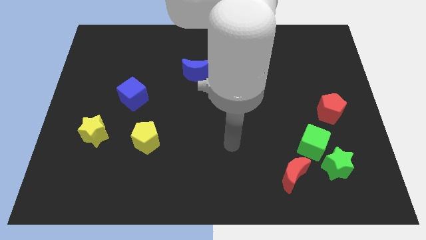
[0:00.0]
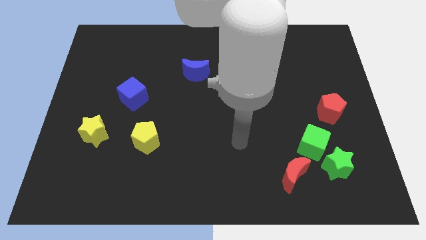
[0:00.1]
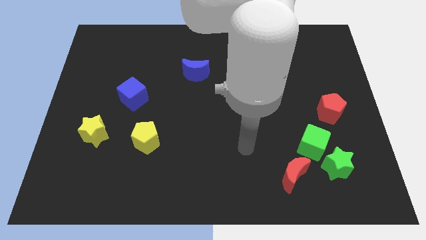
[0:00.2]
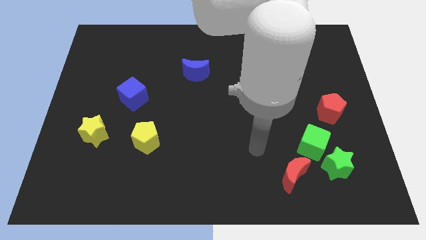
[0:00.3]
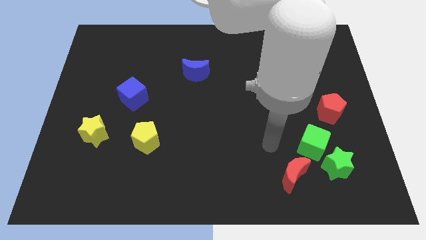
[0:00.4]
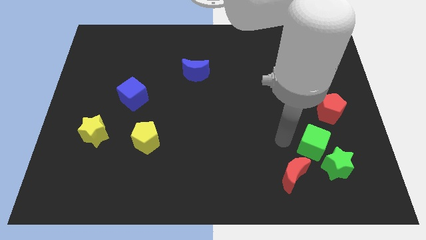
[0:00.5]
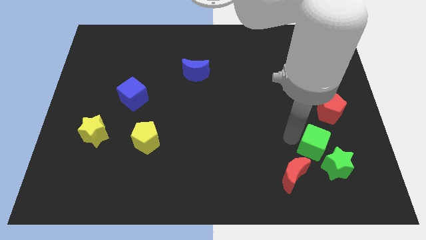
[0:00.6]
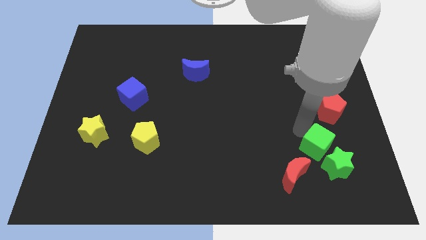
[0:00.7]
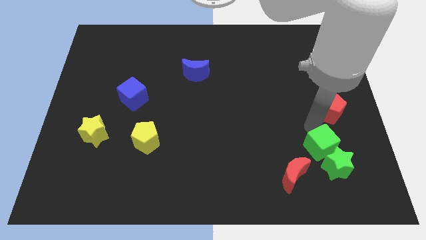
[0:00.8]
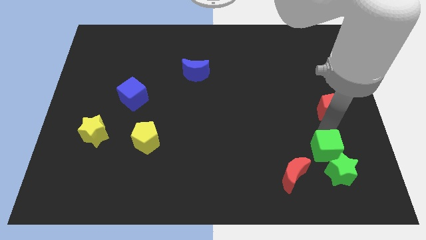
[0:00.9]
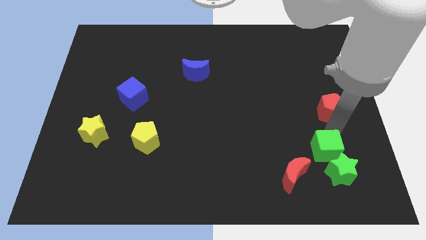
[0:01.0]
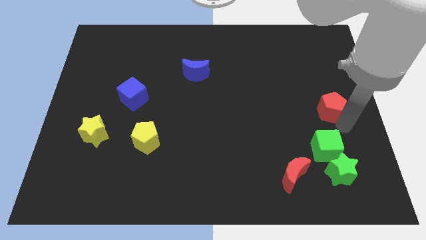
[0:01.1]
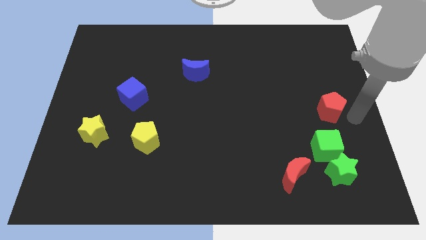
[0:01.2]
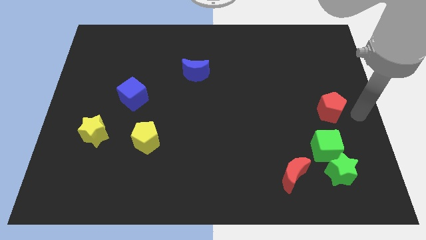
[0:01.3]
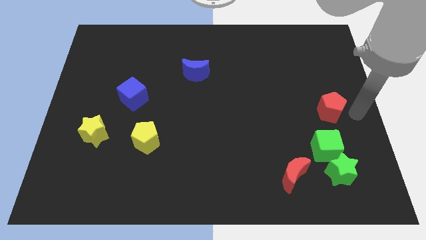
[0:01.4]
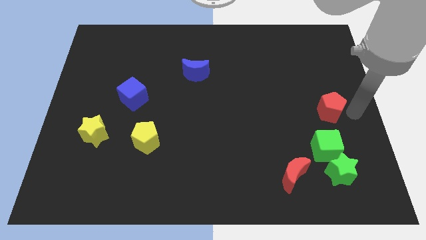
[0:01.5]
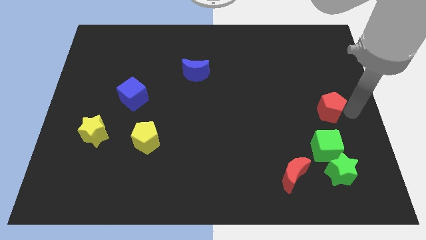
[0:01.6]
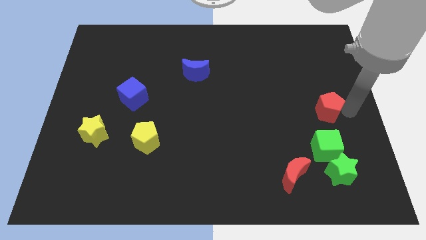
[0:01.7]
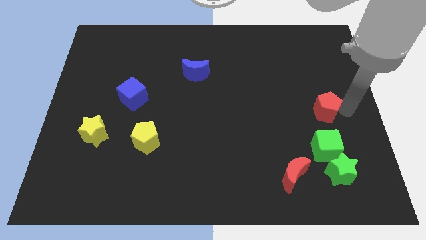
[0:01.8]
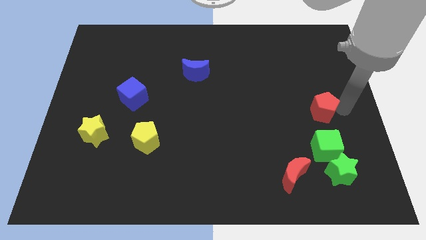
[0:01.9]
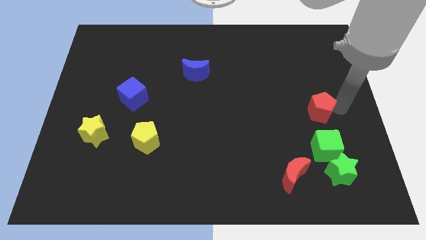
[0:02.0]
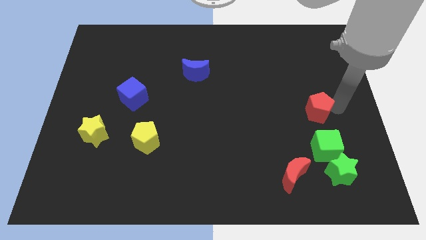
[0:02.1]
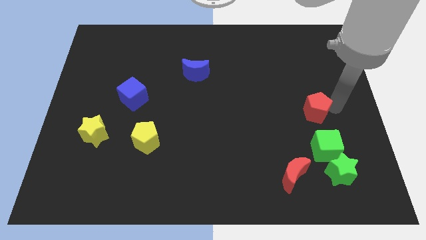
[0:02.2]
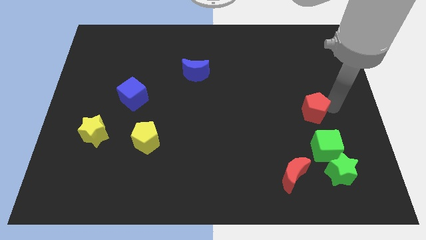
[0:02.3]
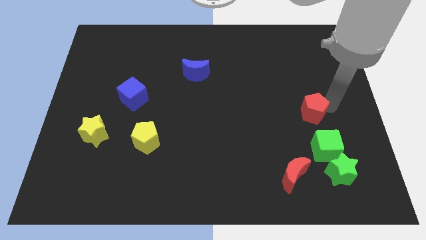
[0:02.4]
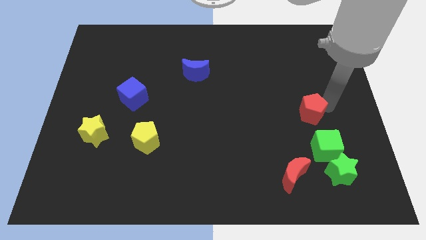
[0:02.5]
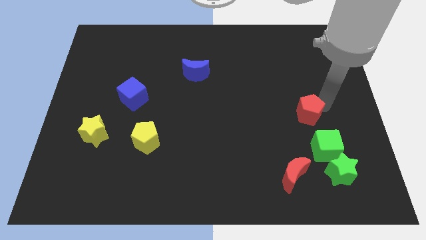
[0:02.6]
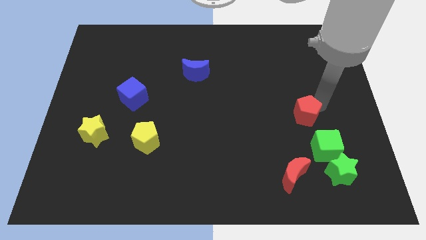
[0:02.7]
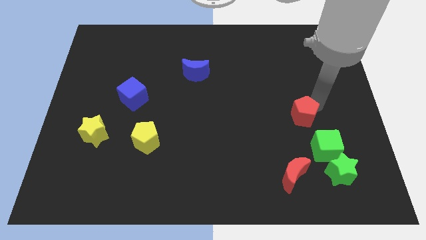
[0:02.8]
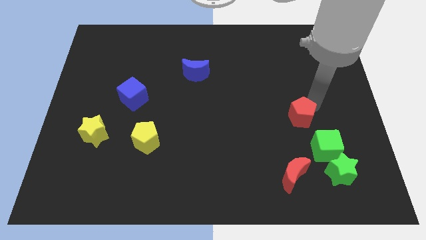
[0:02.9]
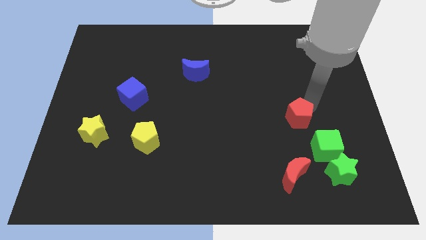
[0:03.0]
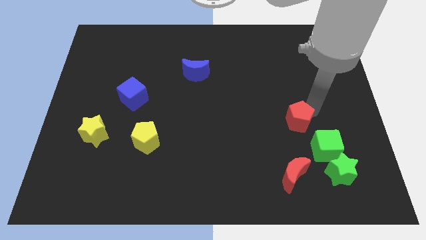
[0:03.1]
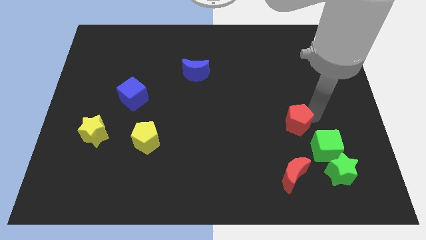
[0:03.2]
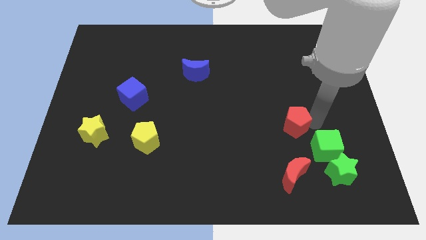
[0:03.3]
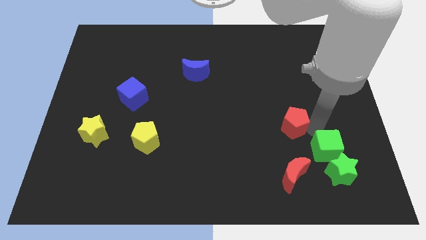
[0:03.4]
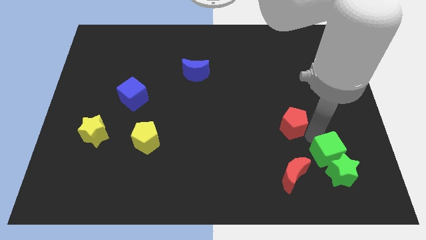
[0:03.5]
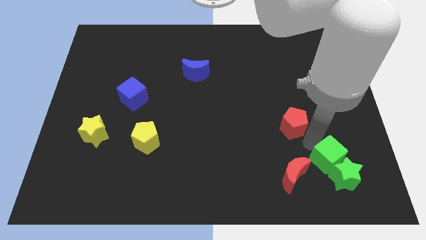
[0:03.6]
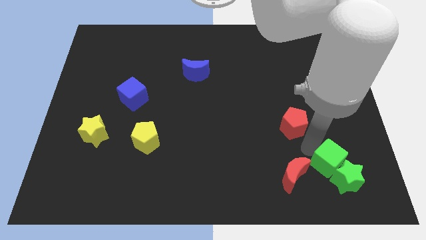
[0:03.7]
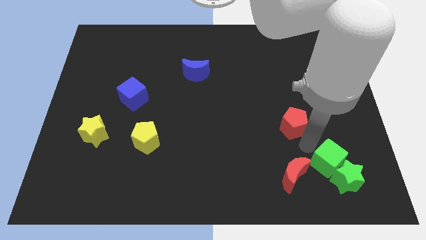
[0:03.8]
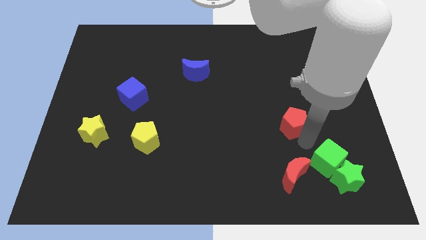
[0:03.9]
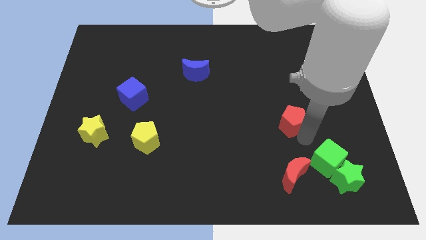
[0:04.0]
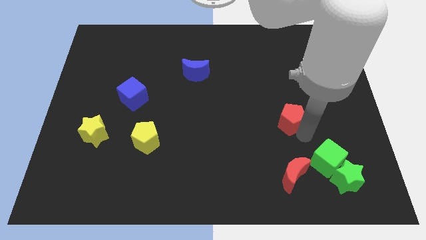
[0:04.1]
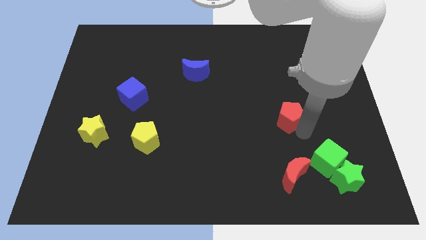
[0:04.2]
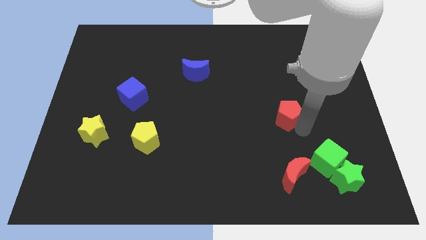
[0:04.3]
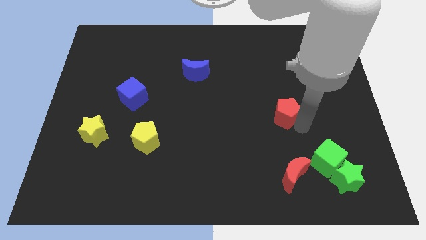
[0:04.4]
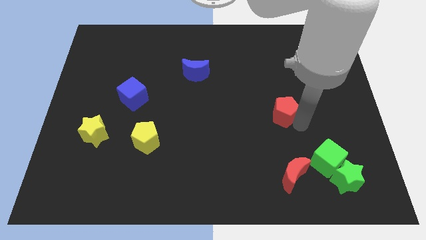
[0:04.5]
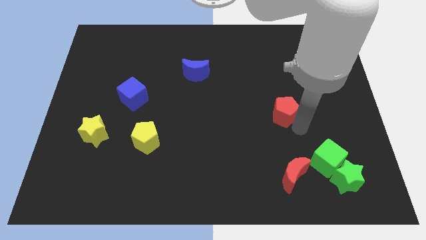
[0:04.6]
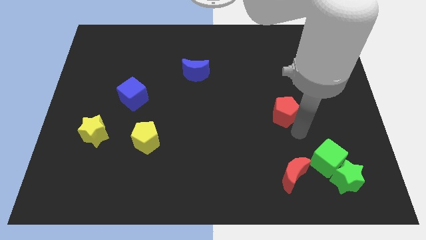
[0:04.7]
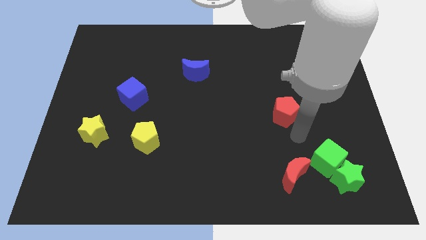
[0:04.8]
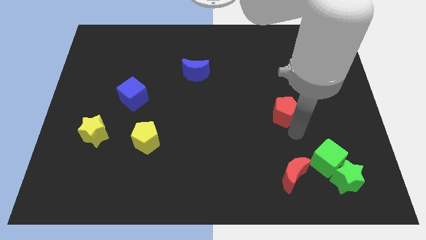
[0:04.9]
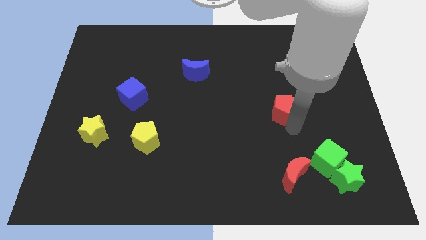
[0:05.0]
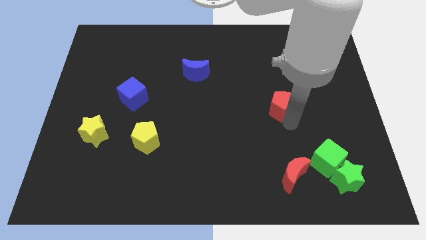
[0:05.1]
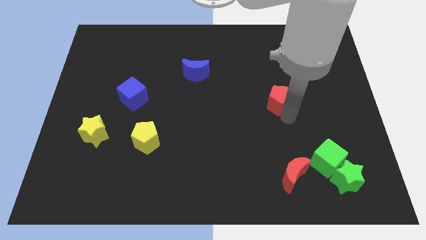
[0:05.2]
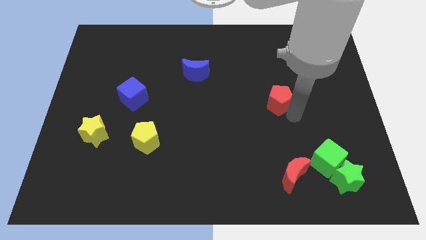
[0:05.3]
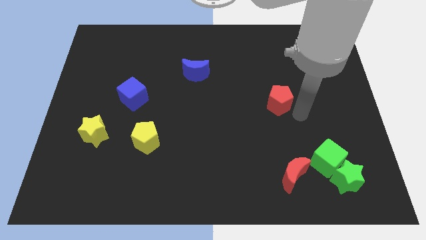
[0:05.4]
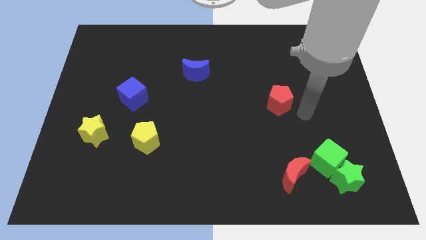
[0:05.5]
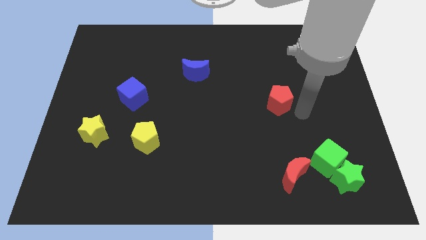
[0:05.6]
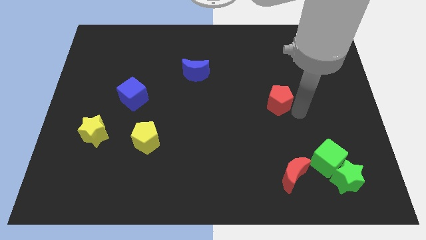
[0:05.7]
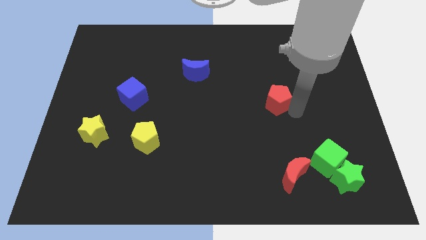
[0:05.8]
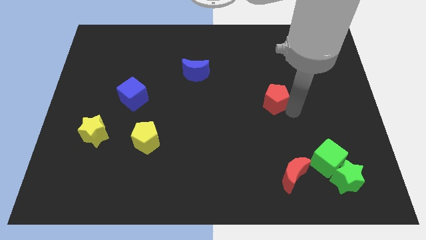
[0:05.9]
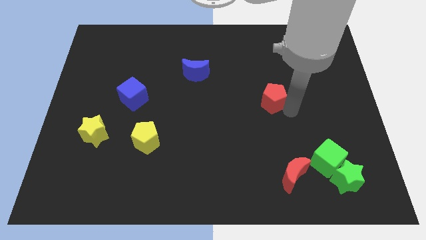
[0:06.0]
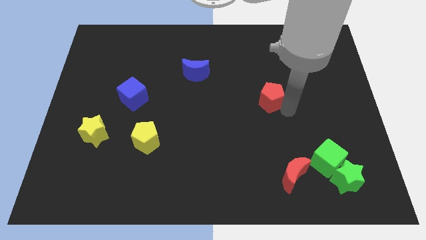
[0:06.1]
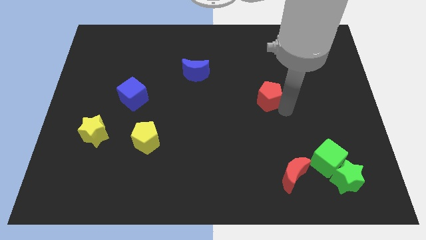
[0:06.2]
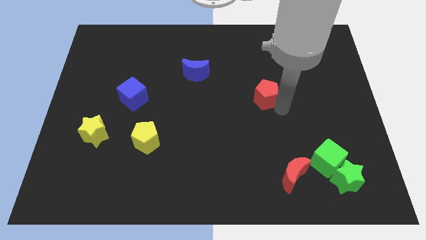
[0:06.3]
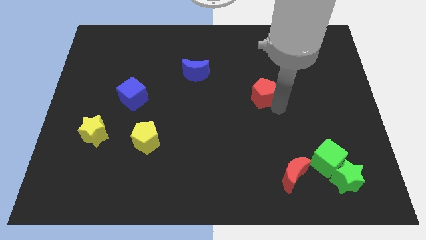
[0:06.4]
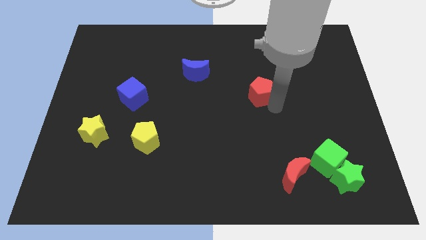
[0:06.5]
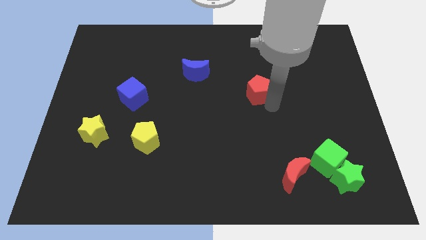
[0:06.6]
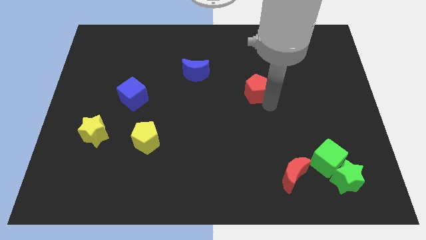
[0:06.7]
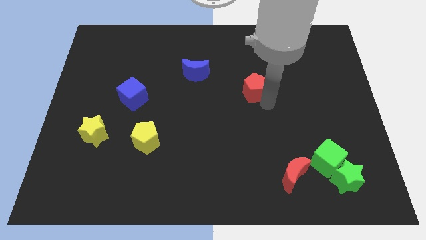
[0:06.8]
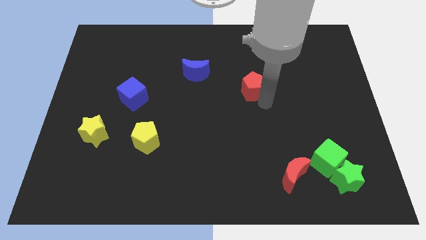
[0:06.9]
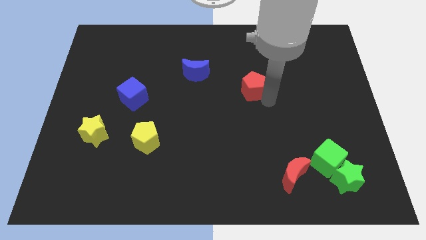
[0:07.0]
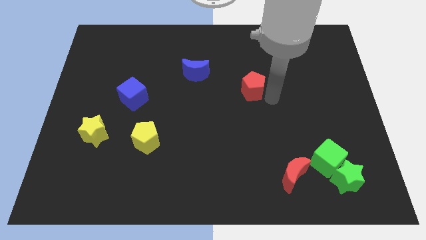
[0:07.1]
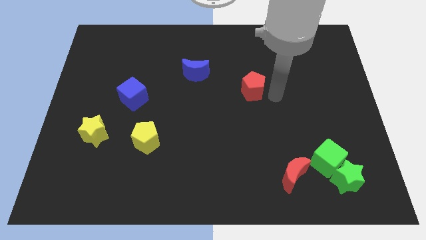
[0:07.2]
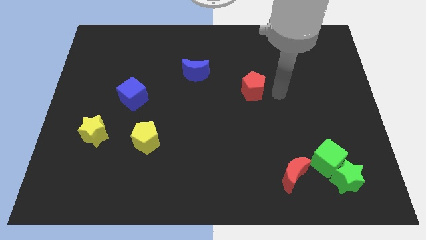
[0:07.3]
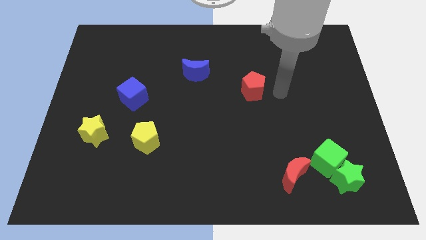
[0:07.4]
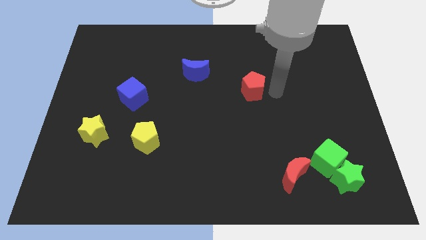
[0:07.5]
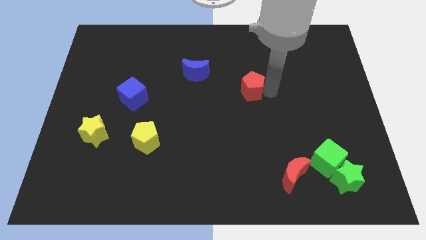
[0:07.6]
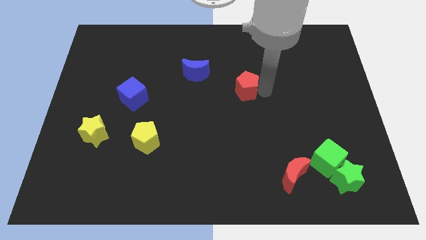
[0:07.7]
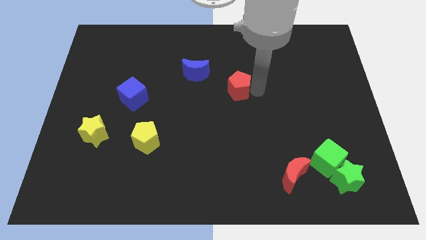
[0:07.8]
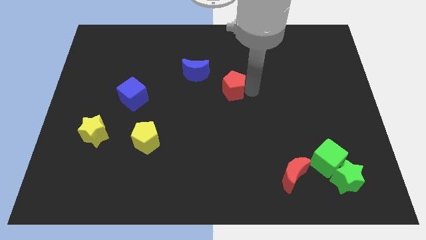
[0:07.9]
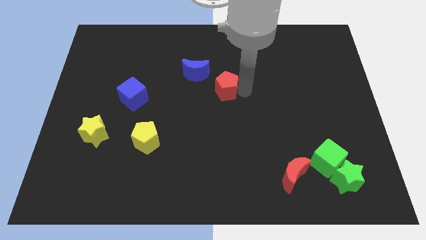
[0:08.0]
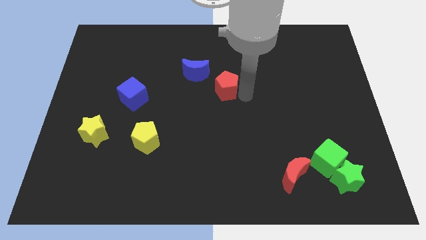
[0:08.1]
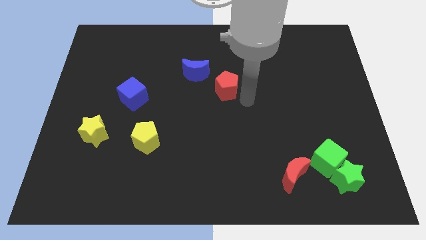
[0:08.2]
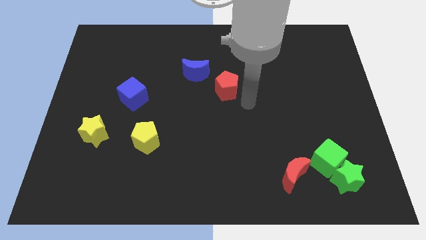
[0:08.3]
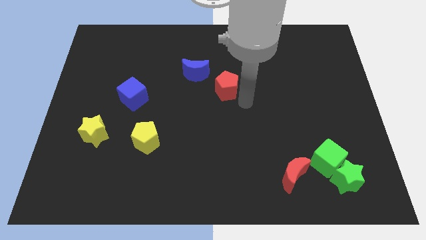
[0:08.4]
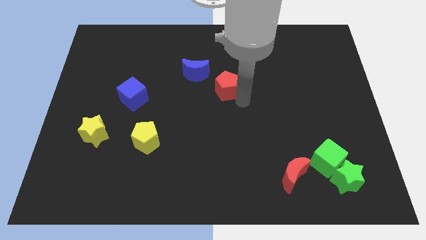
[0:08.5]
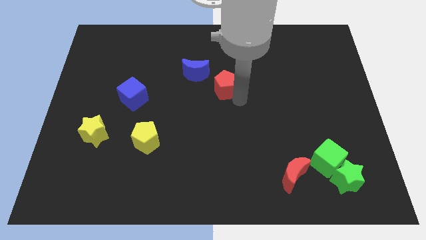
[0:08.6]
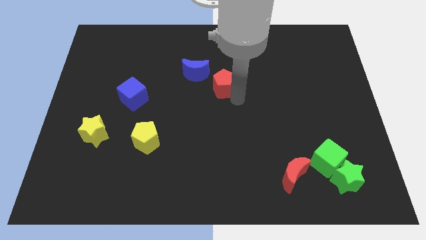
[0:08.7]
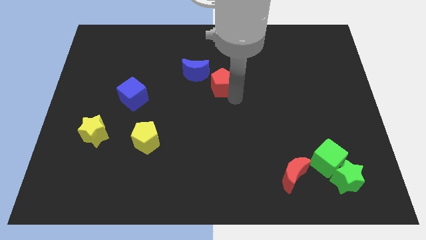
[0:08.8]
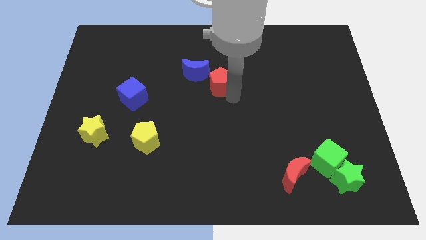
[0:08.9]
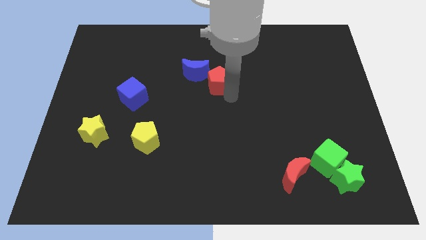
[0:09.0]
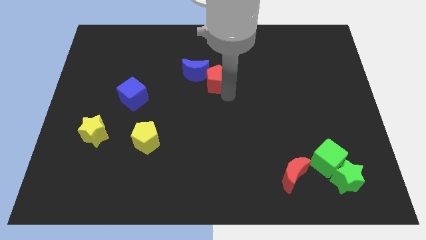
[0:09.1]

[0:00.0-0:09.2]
move the red pentagon next to the blue moon
